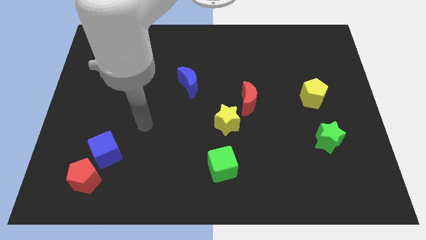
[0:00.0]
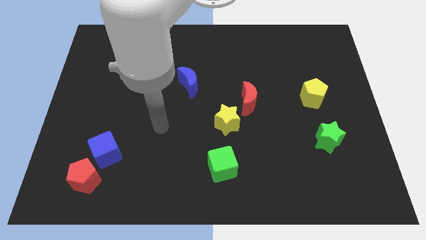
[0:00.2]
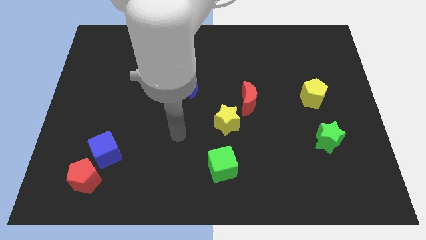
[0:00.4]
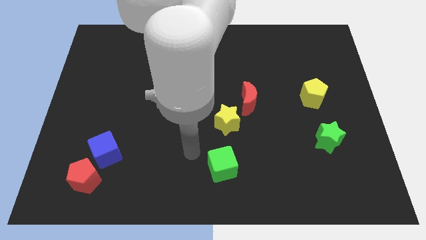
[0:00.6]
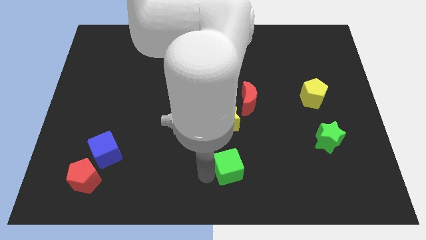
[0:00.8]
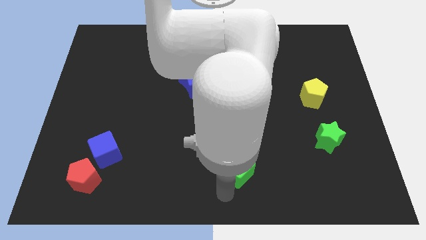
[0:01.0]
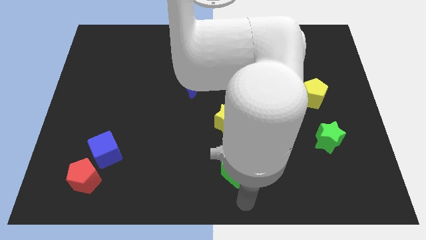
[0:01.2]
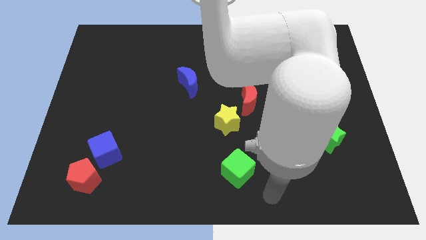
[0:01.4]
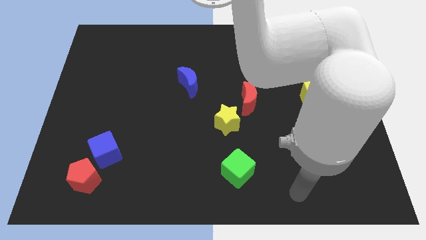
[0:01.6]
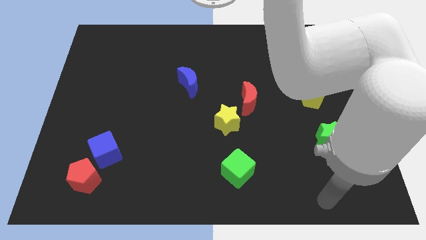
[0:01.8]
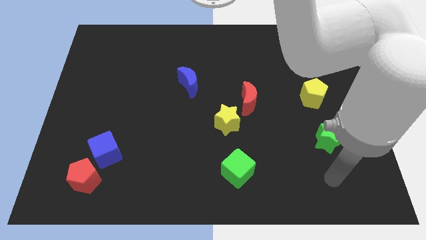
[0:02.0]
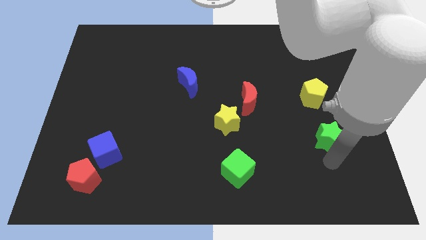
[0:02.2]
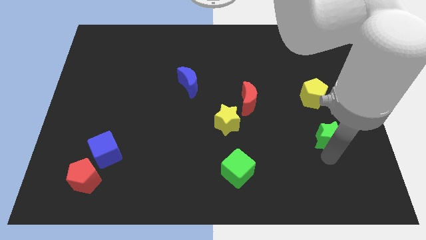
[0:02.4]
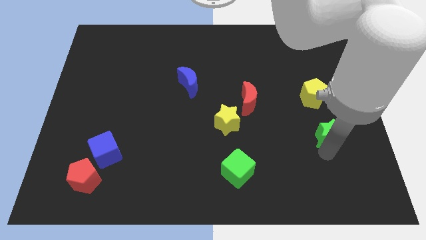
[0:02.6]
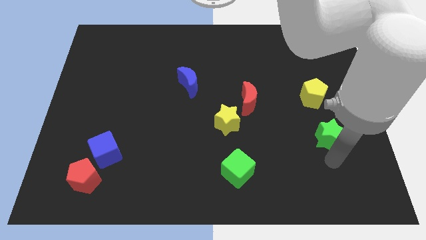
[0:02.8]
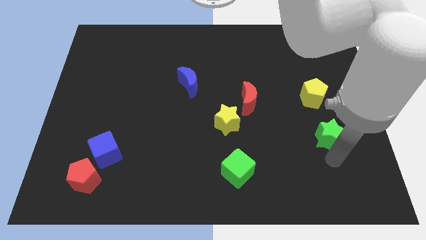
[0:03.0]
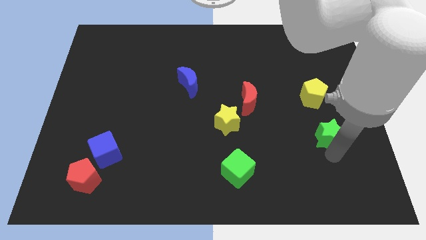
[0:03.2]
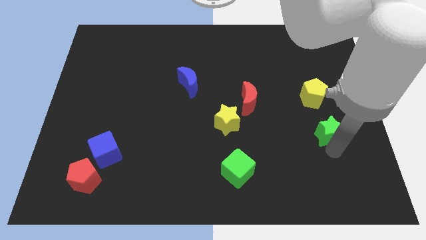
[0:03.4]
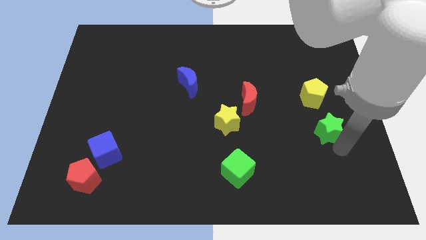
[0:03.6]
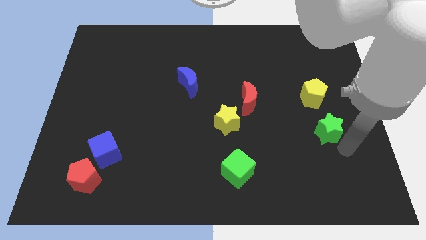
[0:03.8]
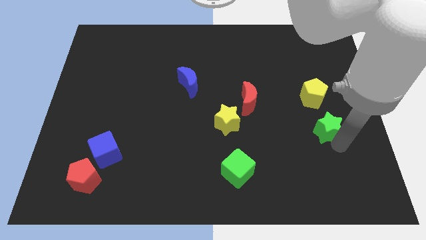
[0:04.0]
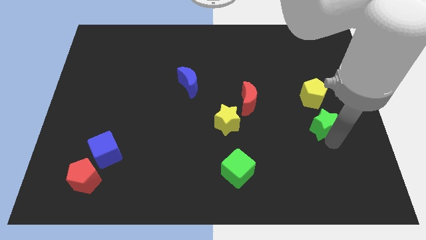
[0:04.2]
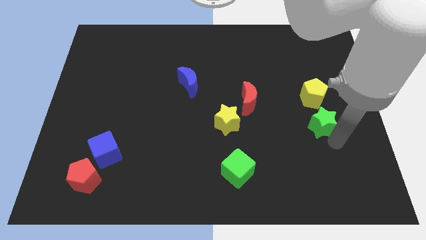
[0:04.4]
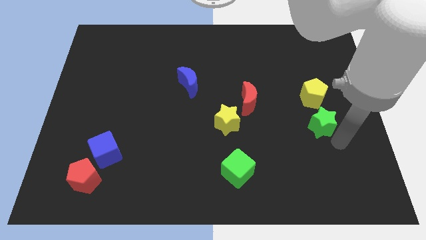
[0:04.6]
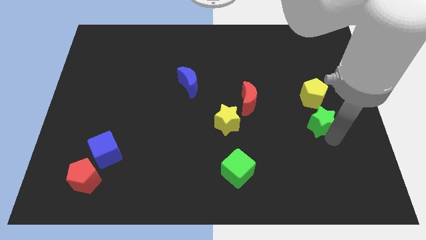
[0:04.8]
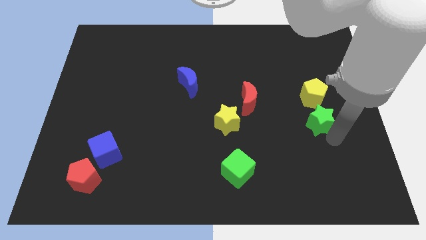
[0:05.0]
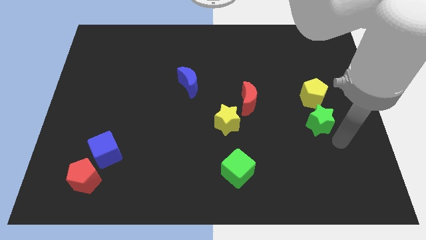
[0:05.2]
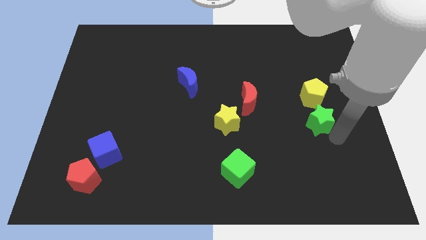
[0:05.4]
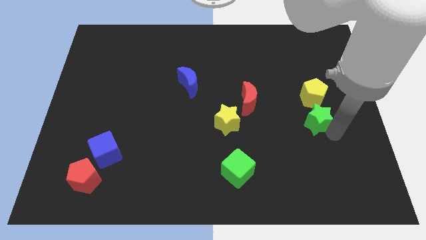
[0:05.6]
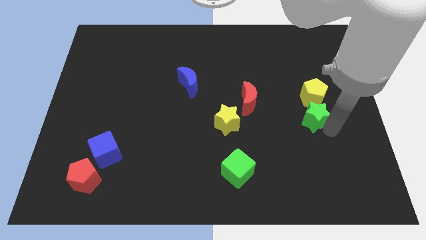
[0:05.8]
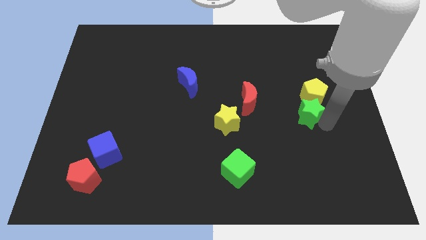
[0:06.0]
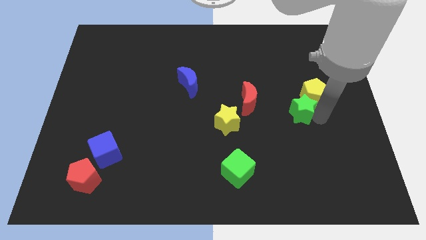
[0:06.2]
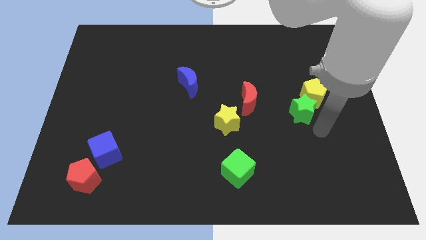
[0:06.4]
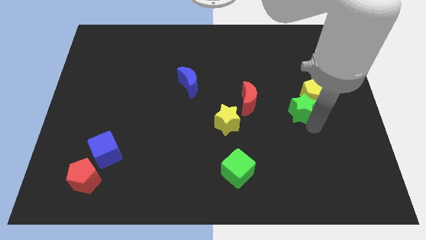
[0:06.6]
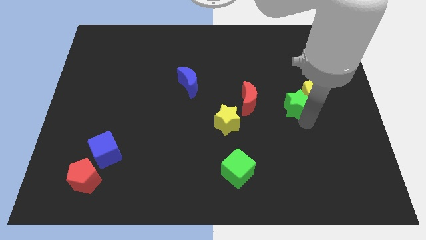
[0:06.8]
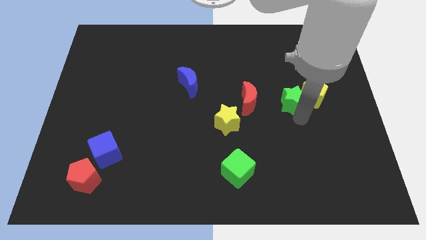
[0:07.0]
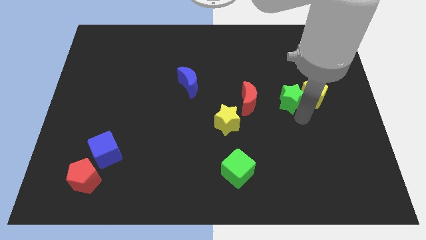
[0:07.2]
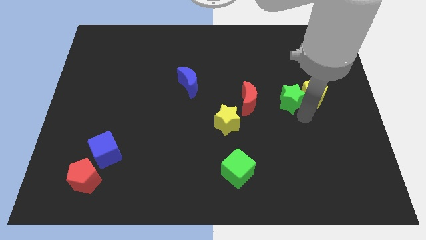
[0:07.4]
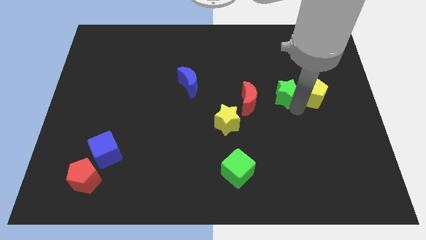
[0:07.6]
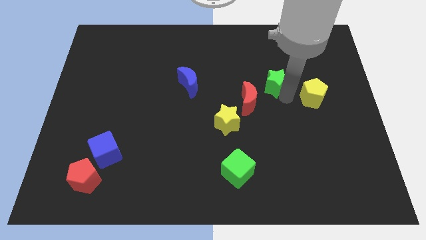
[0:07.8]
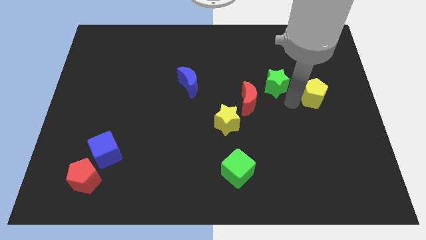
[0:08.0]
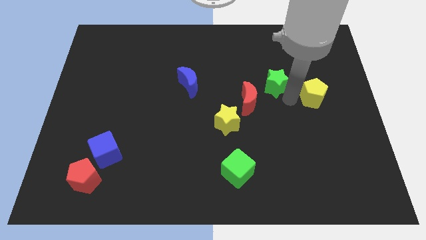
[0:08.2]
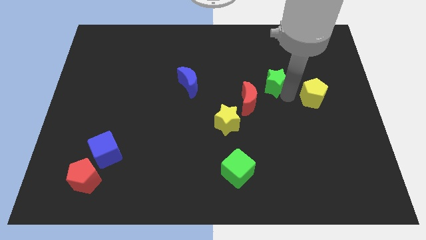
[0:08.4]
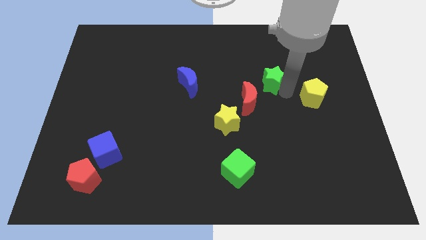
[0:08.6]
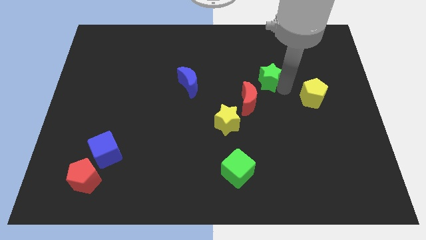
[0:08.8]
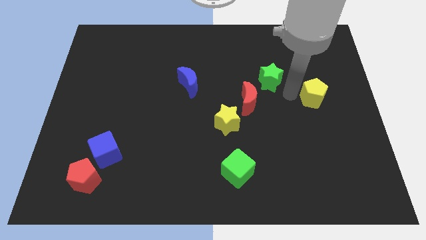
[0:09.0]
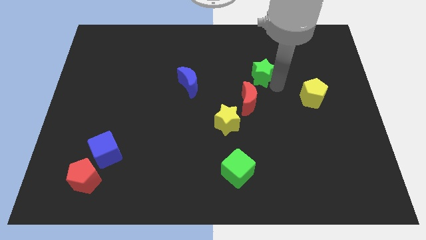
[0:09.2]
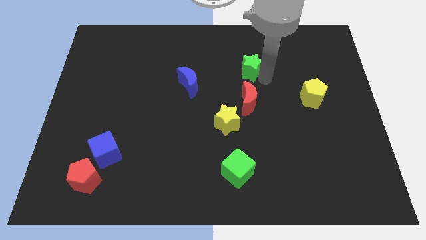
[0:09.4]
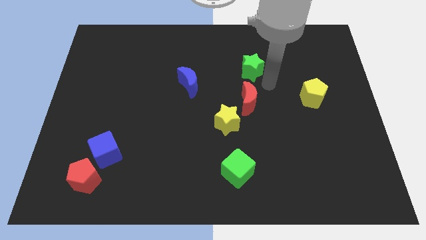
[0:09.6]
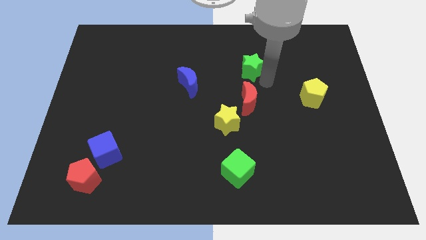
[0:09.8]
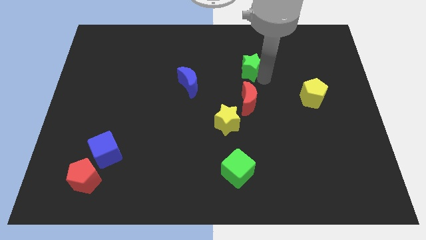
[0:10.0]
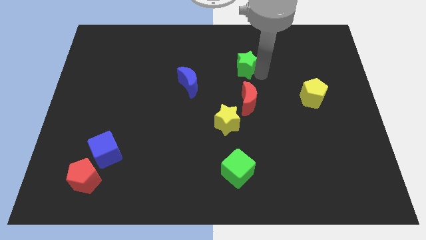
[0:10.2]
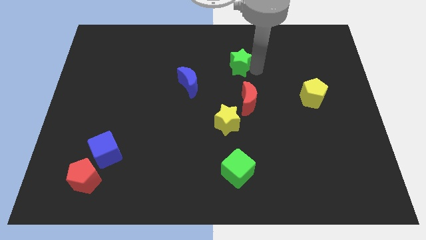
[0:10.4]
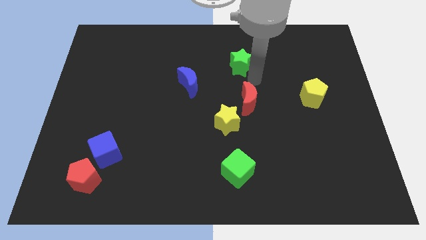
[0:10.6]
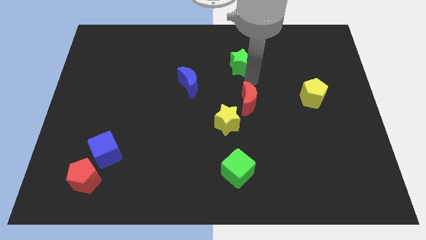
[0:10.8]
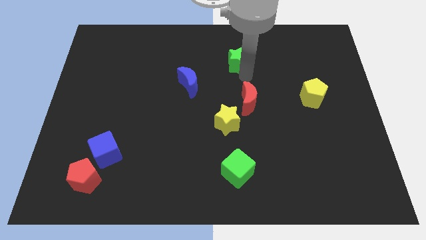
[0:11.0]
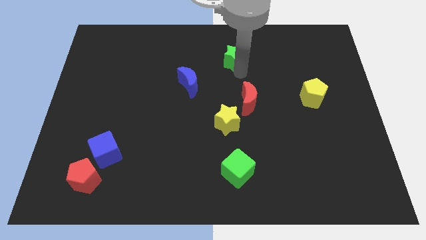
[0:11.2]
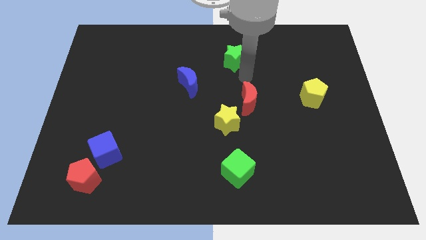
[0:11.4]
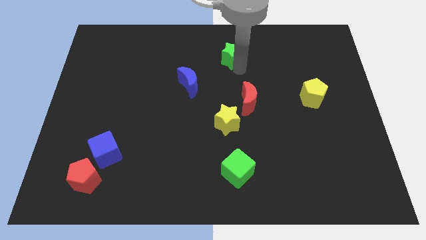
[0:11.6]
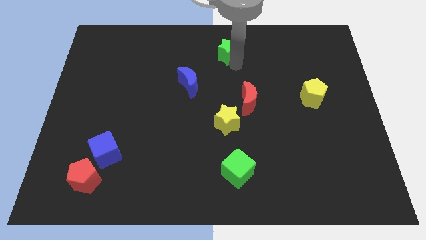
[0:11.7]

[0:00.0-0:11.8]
push the green star to the towards your base

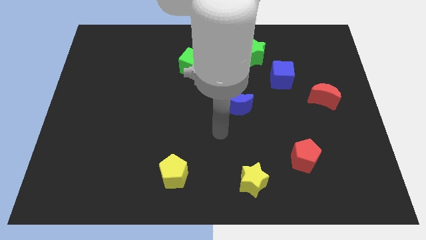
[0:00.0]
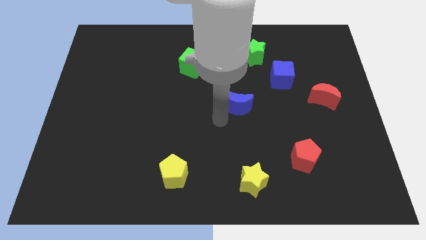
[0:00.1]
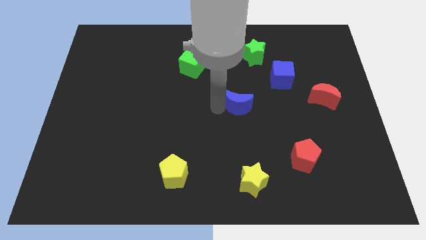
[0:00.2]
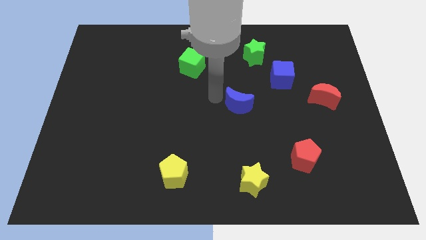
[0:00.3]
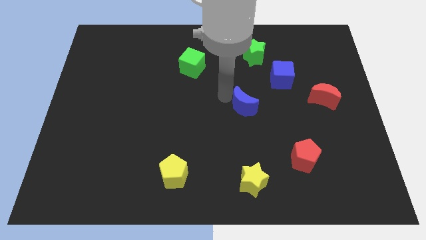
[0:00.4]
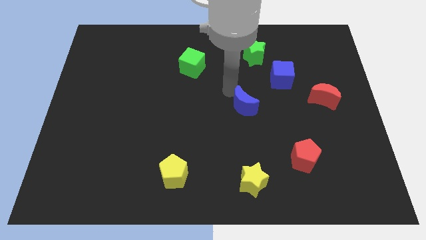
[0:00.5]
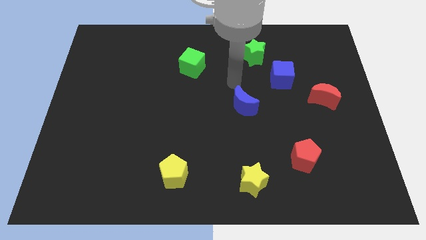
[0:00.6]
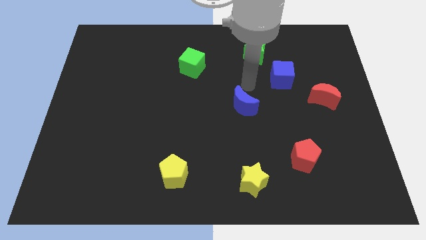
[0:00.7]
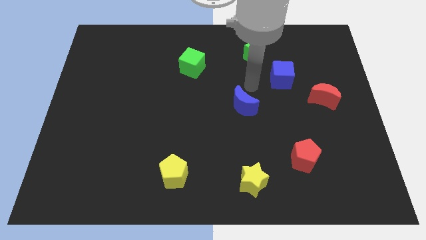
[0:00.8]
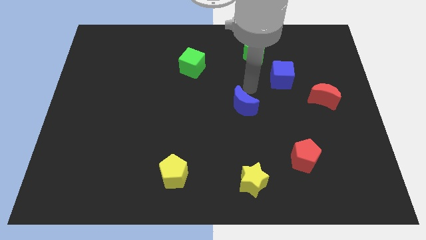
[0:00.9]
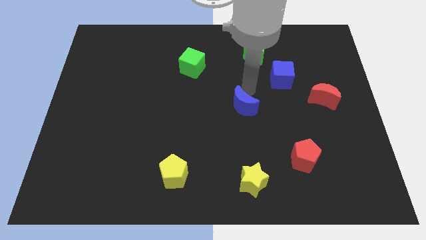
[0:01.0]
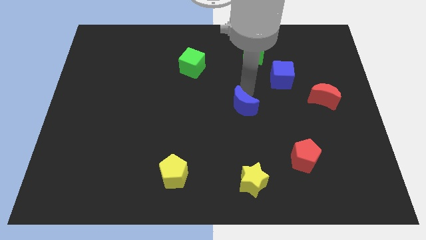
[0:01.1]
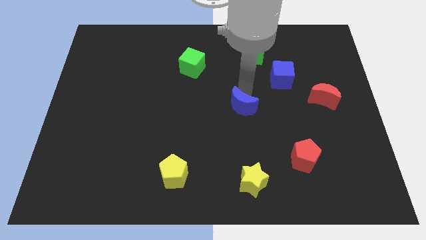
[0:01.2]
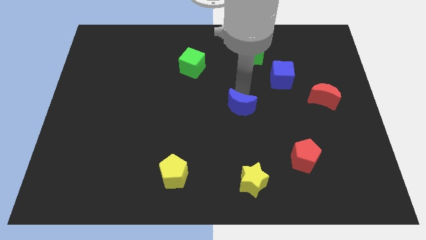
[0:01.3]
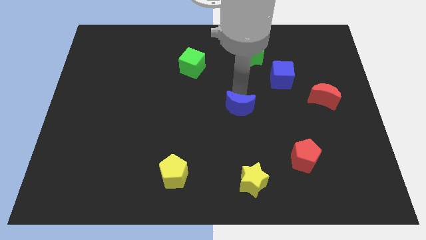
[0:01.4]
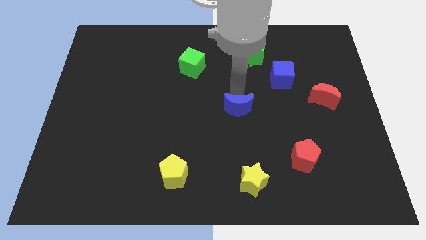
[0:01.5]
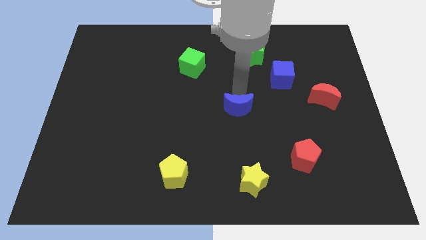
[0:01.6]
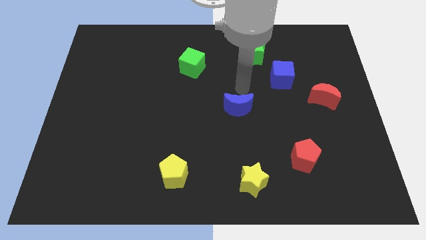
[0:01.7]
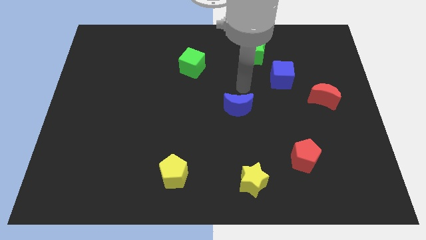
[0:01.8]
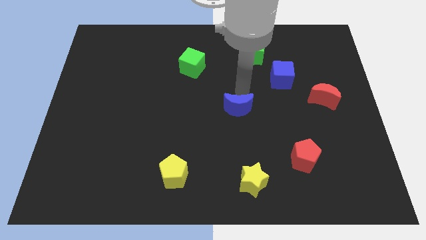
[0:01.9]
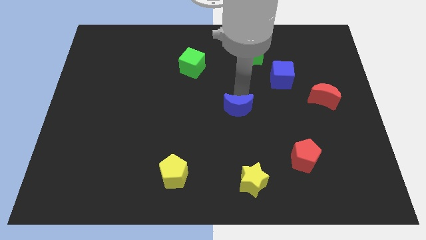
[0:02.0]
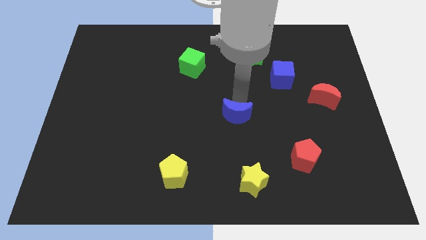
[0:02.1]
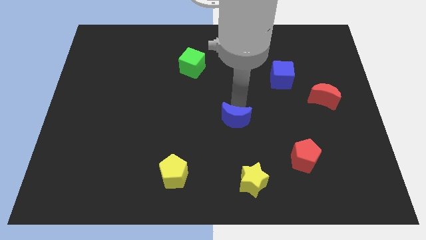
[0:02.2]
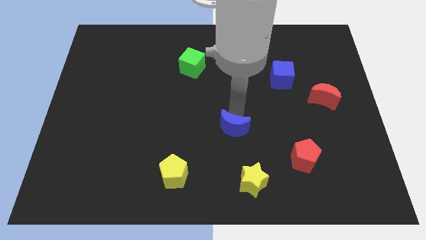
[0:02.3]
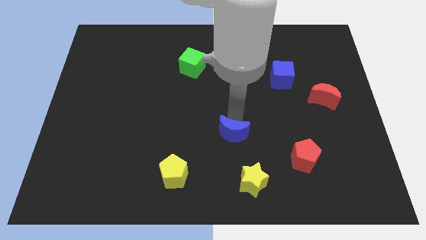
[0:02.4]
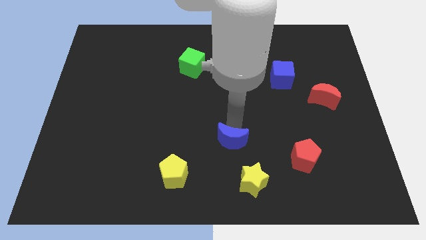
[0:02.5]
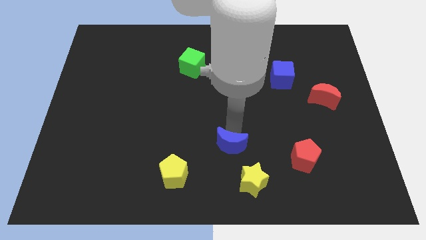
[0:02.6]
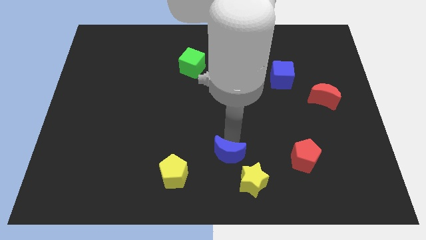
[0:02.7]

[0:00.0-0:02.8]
push the blue moon to the bottom side
